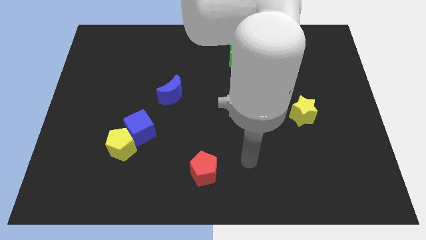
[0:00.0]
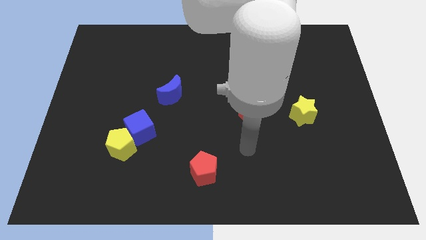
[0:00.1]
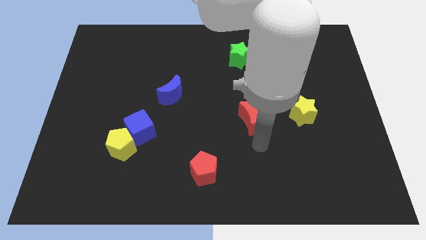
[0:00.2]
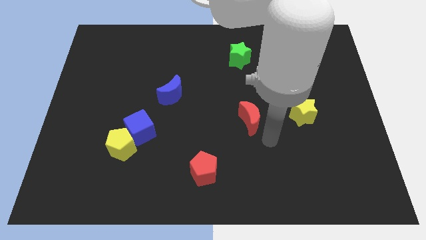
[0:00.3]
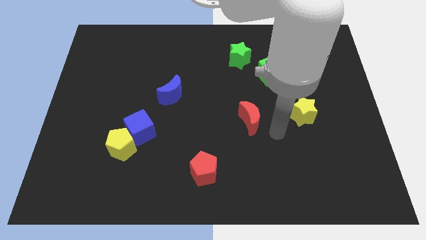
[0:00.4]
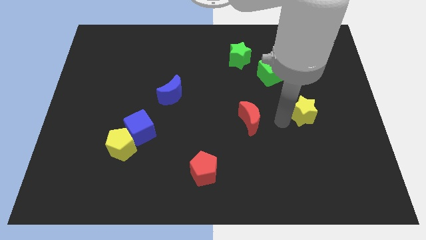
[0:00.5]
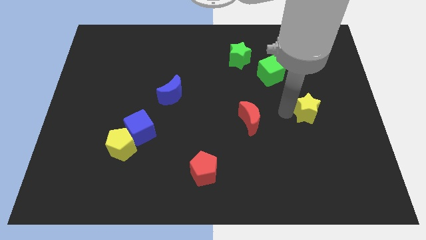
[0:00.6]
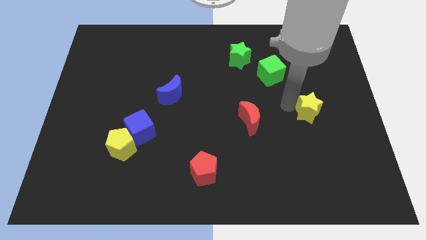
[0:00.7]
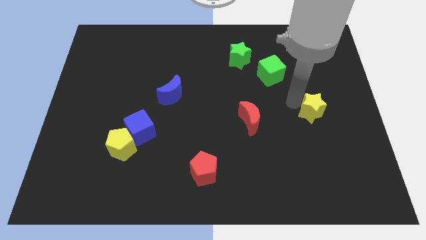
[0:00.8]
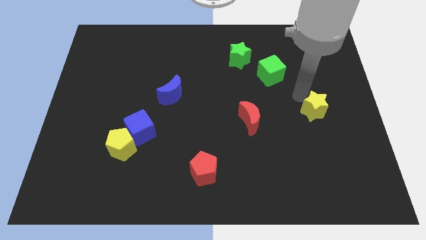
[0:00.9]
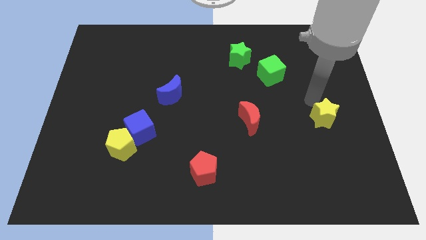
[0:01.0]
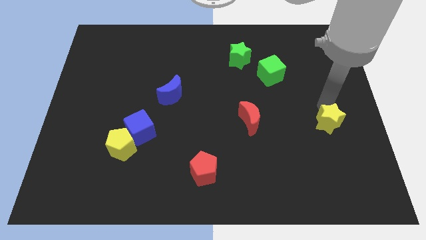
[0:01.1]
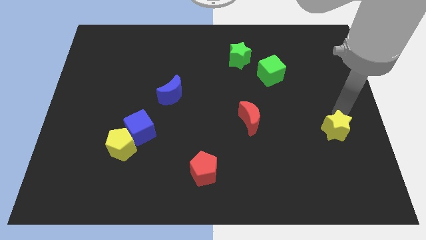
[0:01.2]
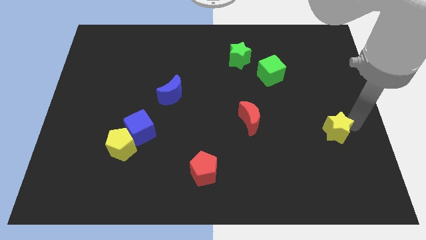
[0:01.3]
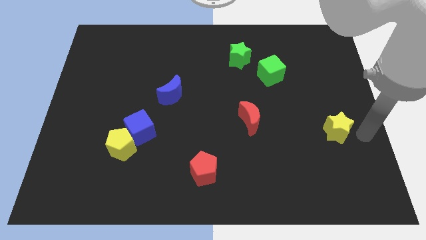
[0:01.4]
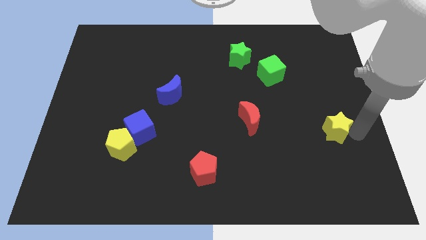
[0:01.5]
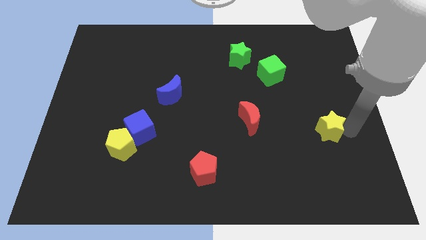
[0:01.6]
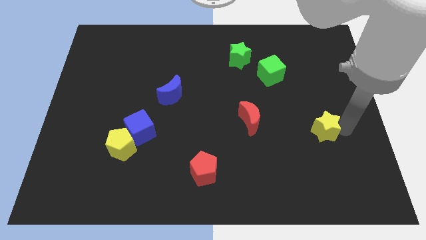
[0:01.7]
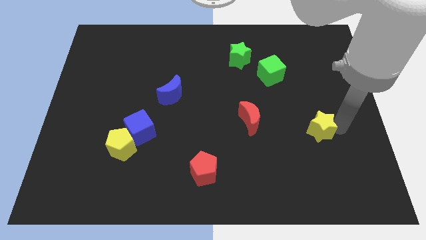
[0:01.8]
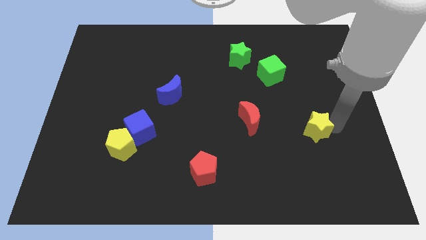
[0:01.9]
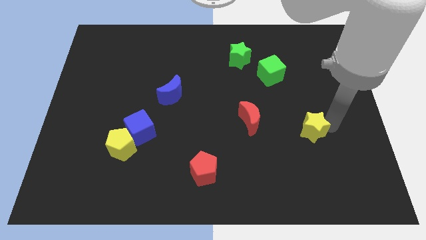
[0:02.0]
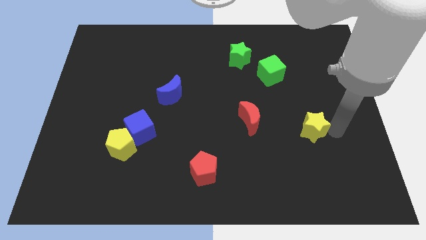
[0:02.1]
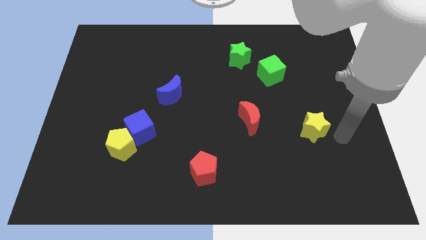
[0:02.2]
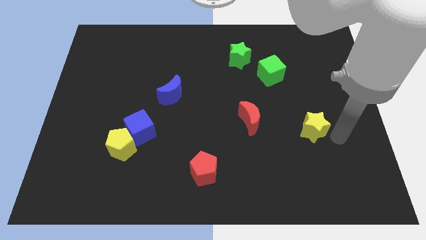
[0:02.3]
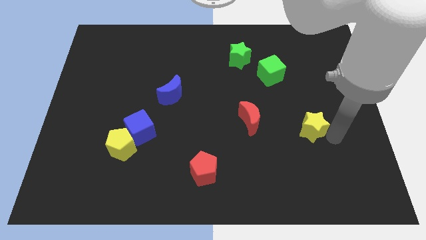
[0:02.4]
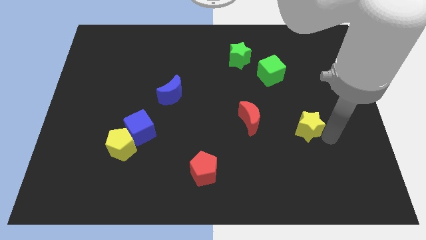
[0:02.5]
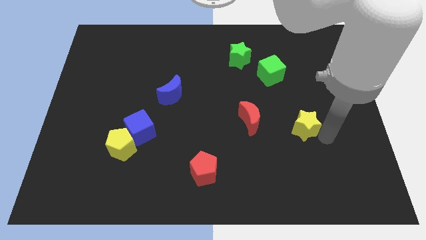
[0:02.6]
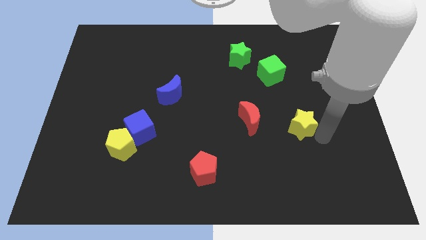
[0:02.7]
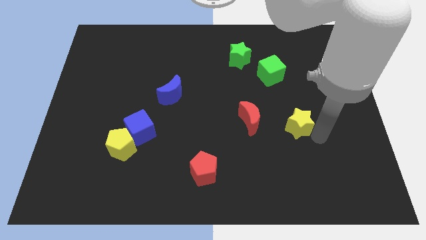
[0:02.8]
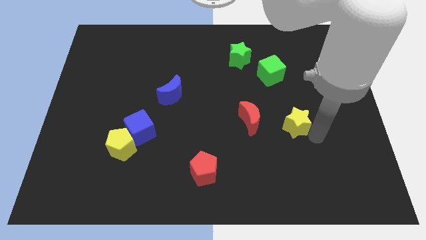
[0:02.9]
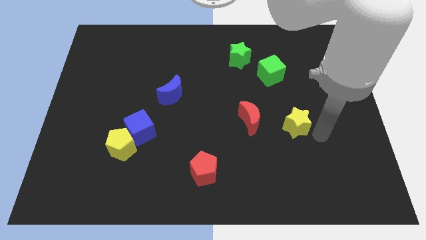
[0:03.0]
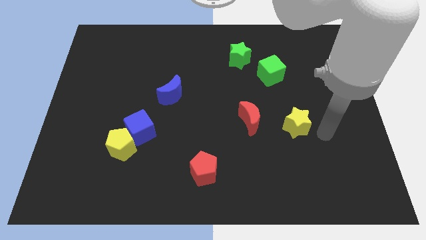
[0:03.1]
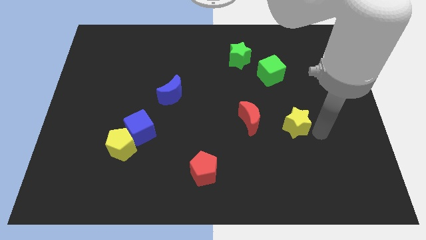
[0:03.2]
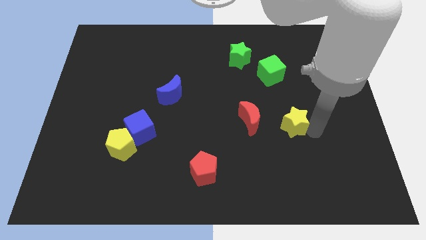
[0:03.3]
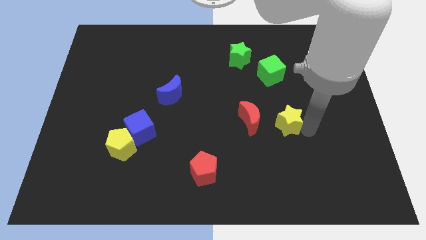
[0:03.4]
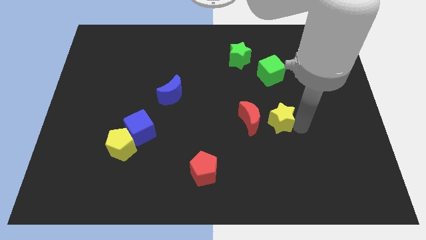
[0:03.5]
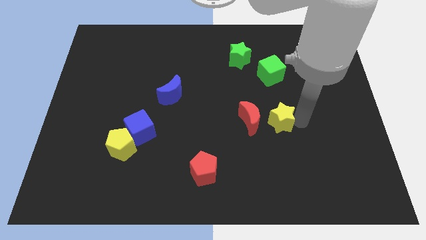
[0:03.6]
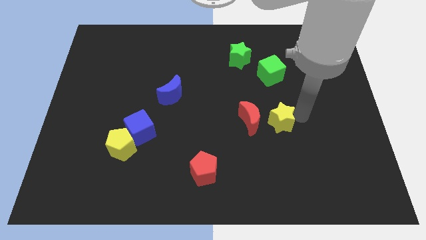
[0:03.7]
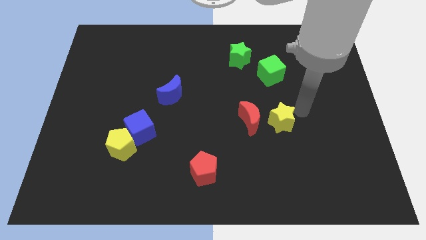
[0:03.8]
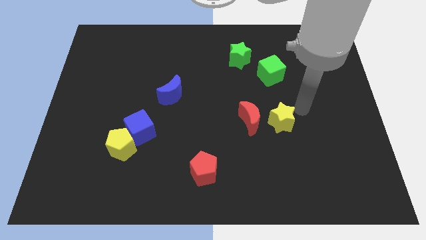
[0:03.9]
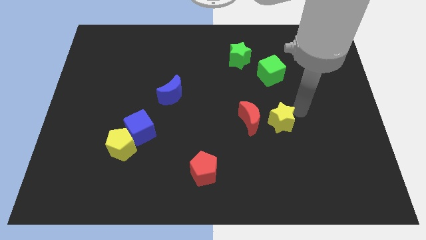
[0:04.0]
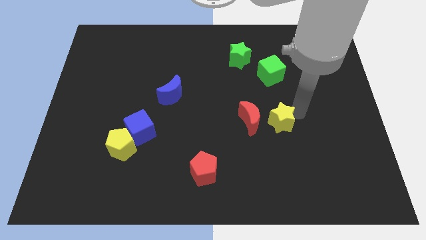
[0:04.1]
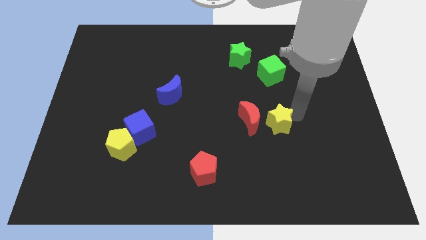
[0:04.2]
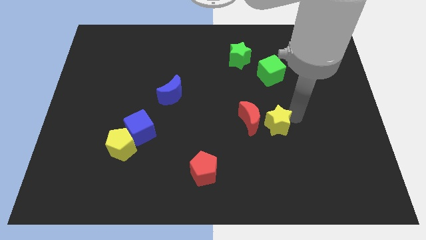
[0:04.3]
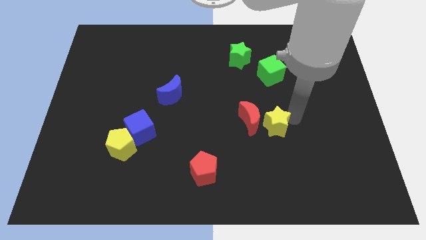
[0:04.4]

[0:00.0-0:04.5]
slide the yellow star down and then to the left a little

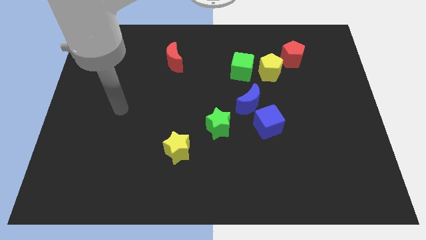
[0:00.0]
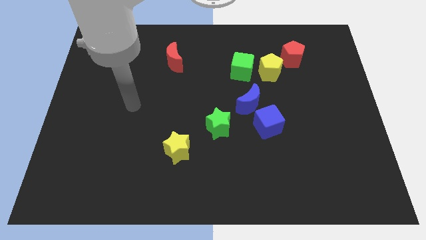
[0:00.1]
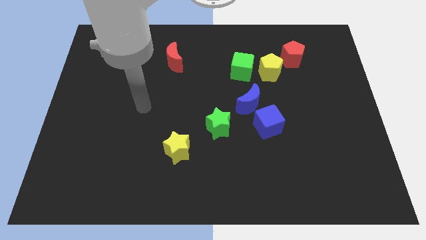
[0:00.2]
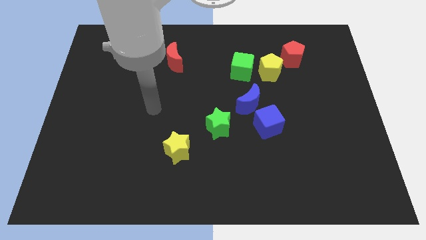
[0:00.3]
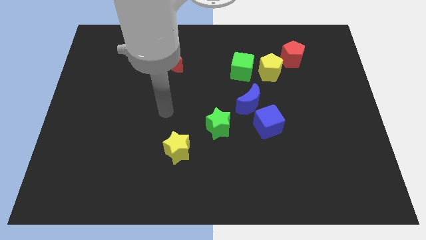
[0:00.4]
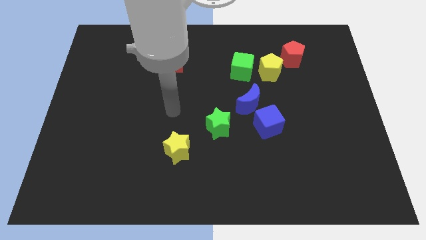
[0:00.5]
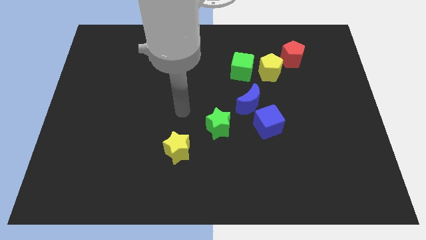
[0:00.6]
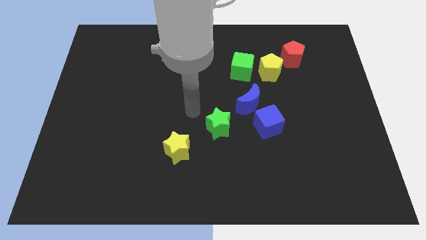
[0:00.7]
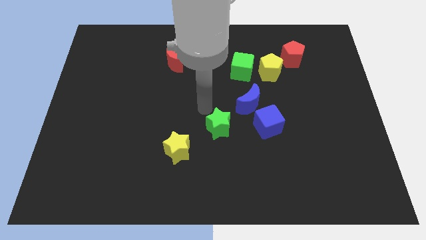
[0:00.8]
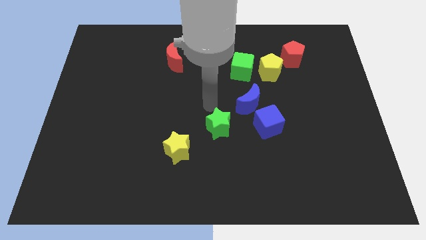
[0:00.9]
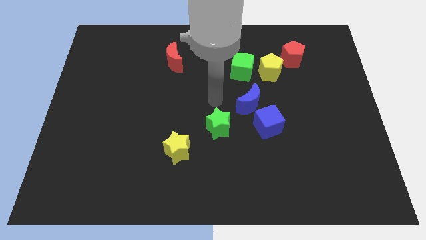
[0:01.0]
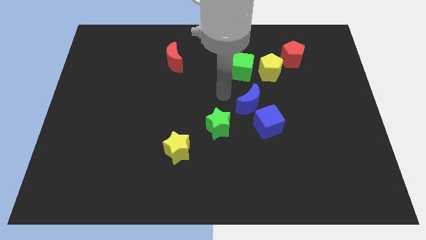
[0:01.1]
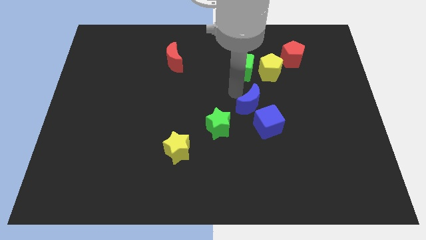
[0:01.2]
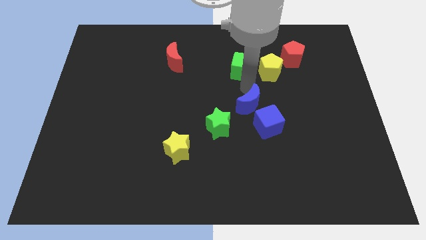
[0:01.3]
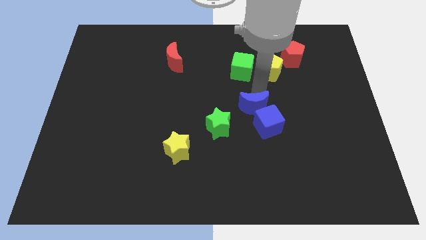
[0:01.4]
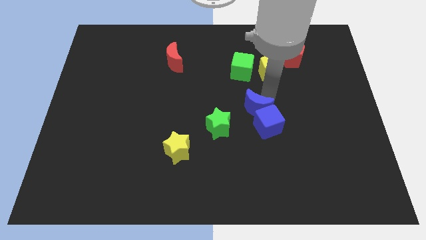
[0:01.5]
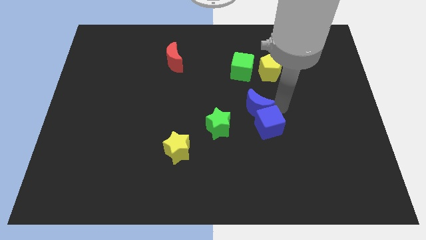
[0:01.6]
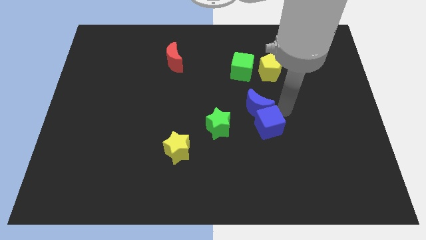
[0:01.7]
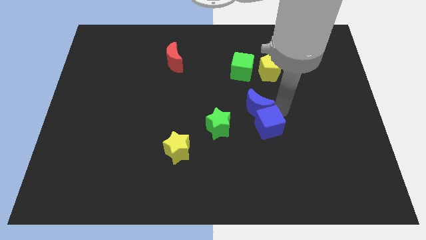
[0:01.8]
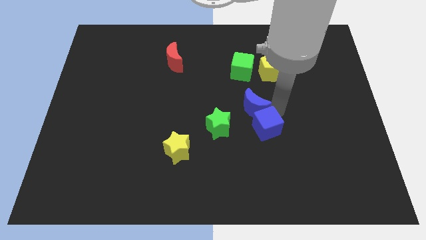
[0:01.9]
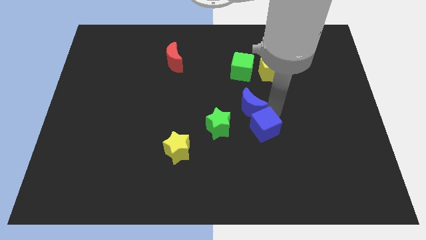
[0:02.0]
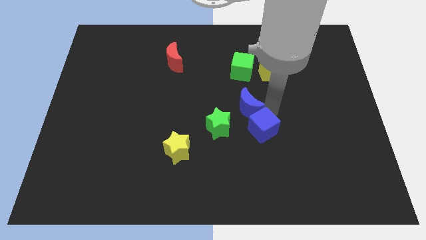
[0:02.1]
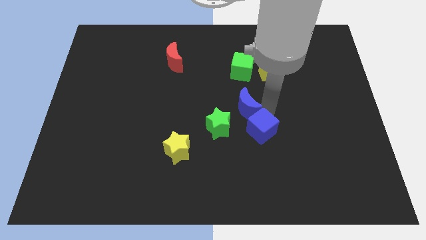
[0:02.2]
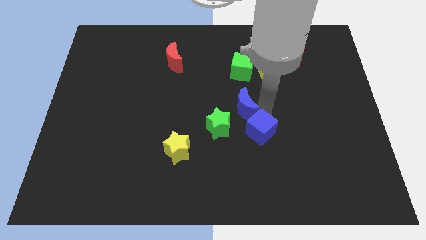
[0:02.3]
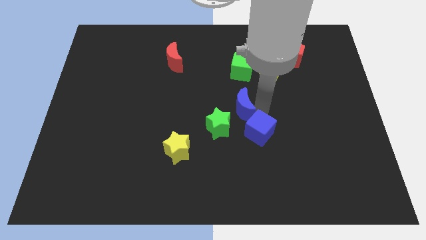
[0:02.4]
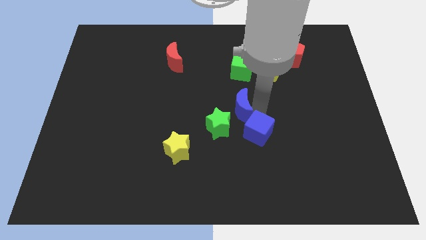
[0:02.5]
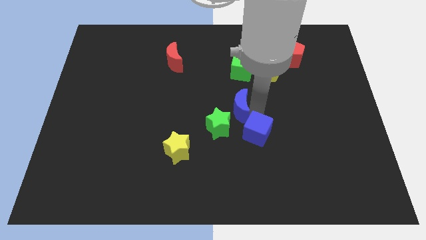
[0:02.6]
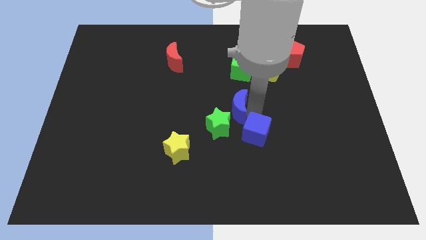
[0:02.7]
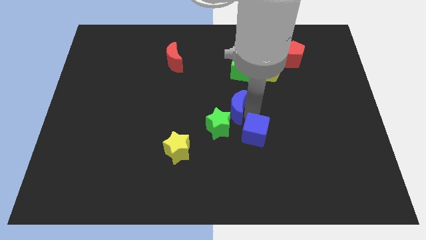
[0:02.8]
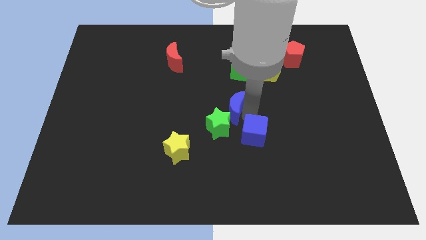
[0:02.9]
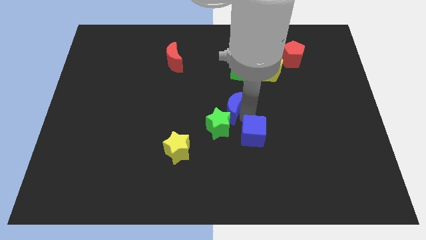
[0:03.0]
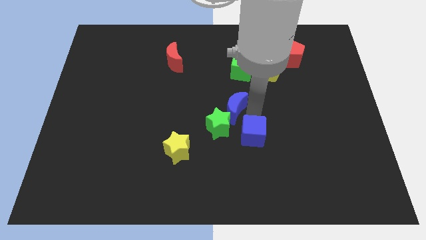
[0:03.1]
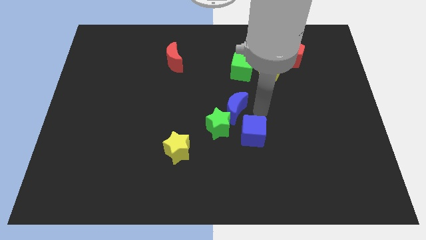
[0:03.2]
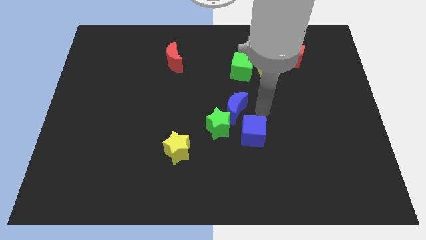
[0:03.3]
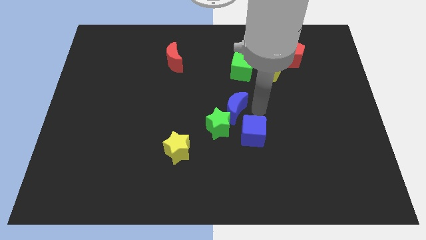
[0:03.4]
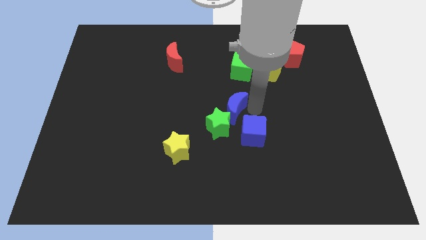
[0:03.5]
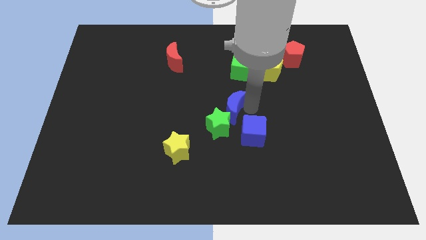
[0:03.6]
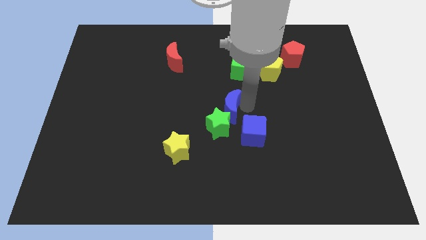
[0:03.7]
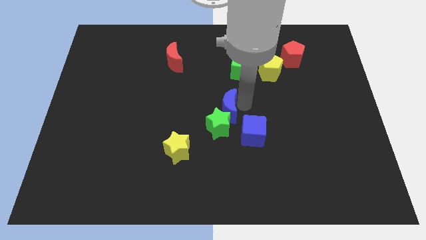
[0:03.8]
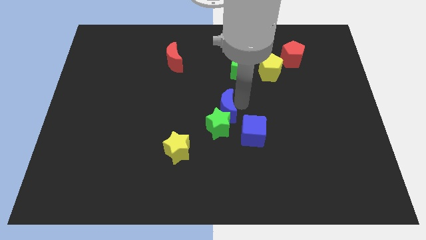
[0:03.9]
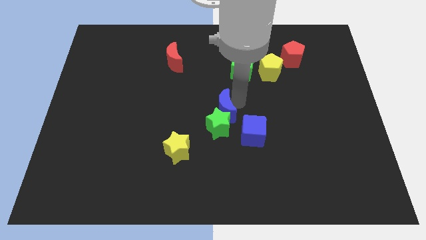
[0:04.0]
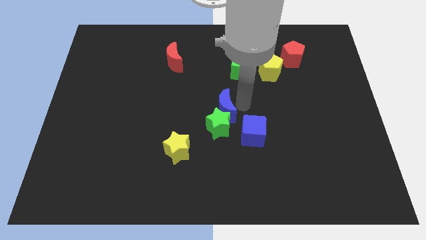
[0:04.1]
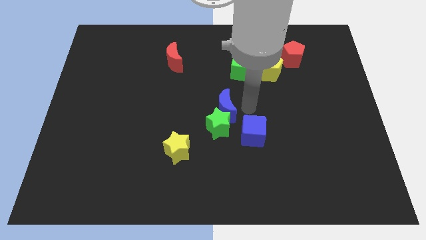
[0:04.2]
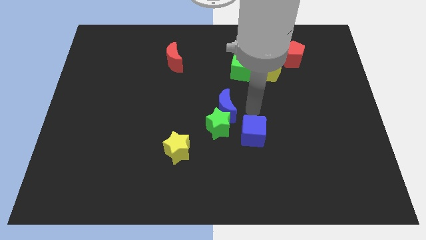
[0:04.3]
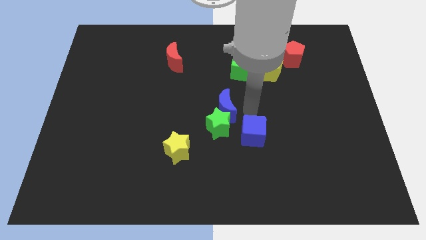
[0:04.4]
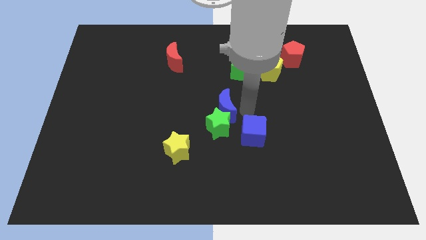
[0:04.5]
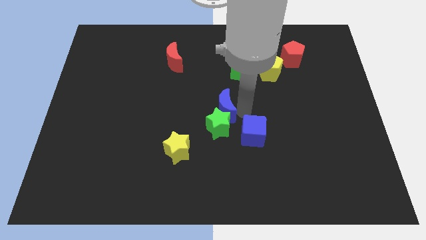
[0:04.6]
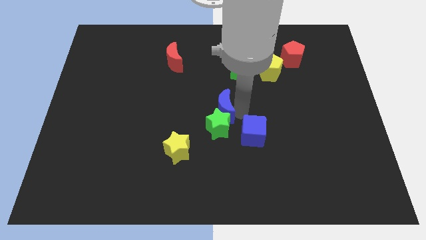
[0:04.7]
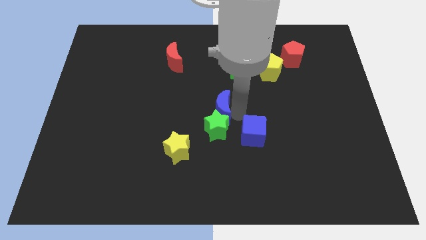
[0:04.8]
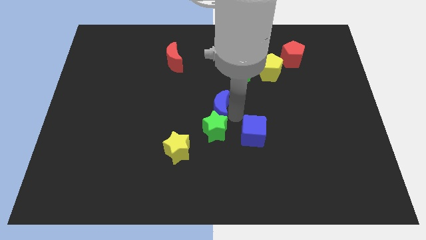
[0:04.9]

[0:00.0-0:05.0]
slide the blue moon slightly left
